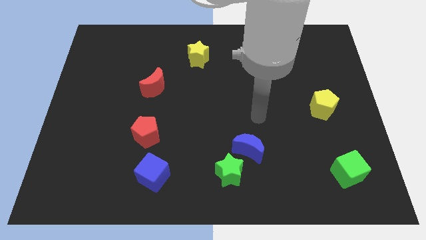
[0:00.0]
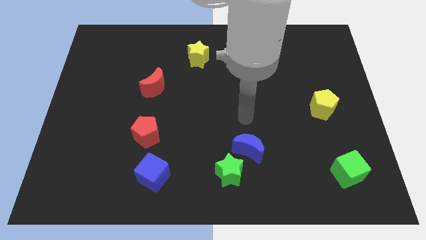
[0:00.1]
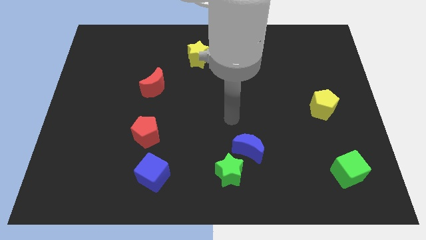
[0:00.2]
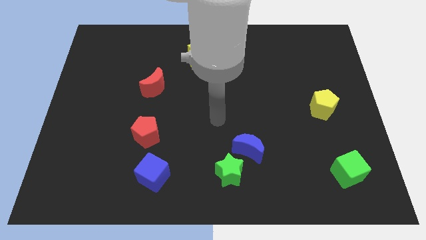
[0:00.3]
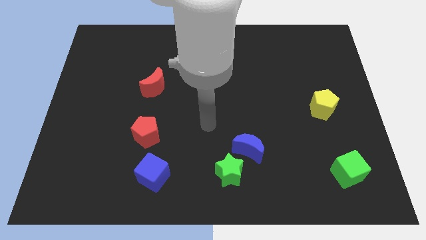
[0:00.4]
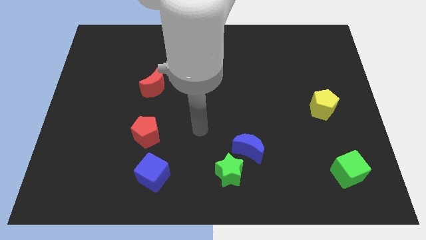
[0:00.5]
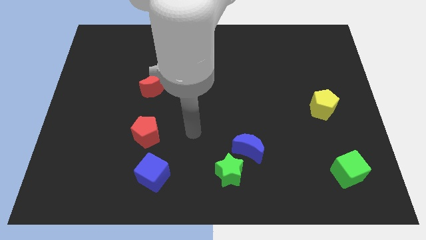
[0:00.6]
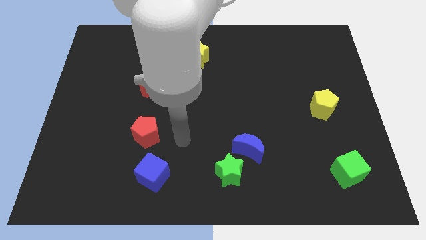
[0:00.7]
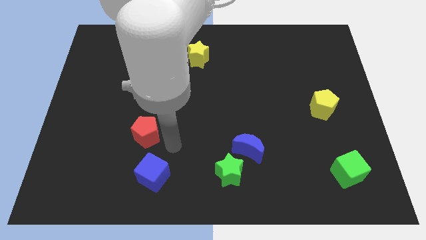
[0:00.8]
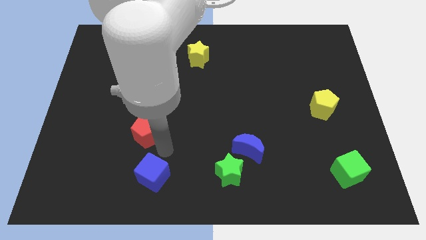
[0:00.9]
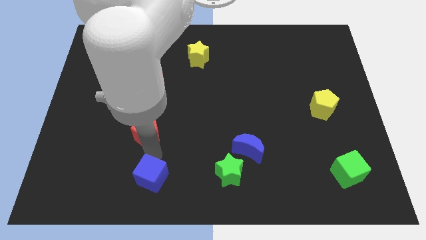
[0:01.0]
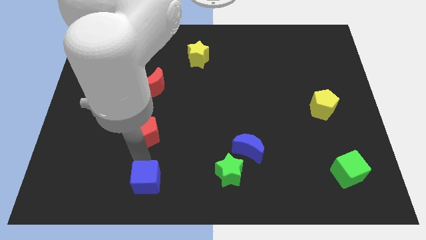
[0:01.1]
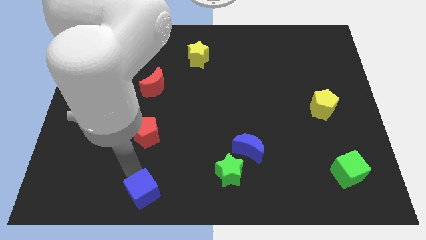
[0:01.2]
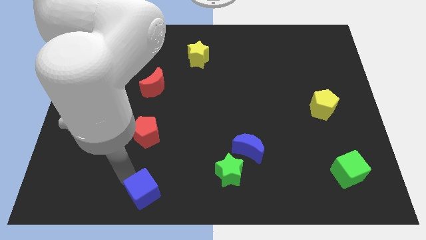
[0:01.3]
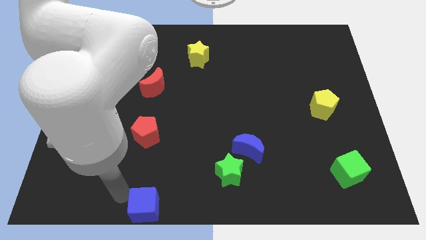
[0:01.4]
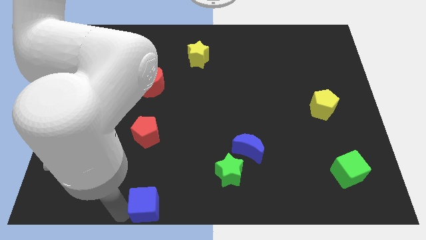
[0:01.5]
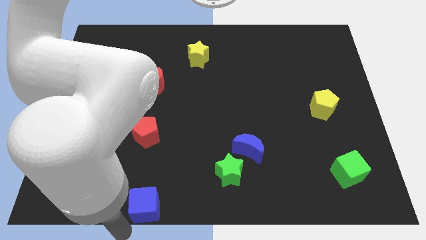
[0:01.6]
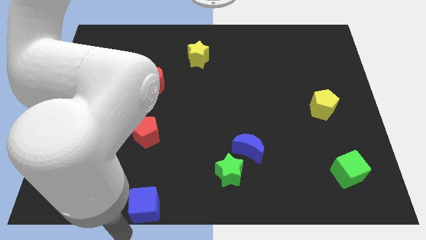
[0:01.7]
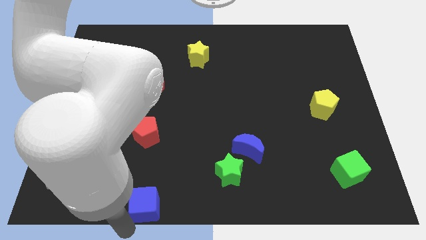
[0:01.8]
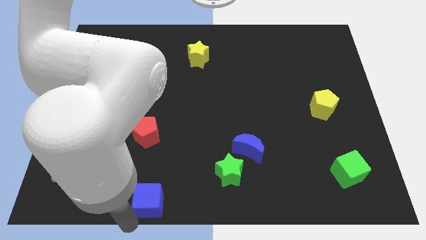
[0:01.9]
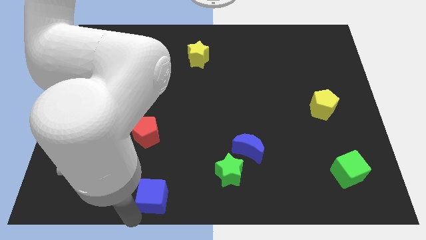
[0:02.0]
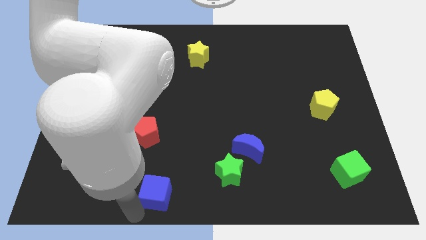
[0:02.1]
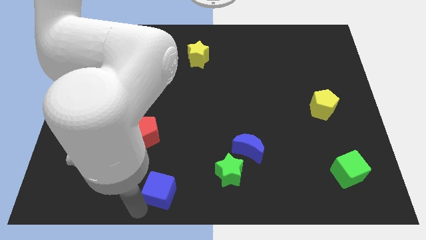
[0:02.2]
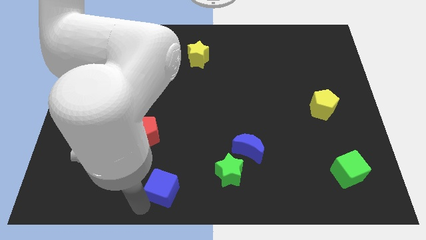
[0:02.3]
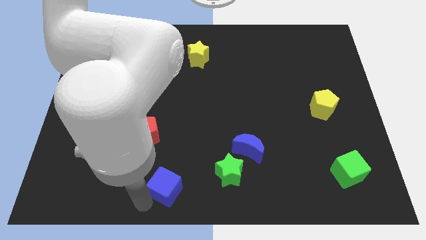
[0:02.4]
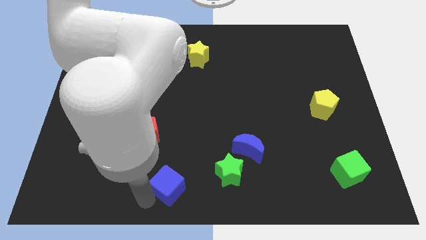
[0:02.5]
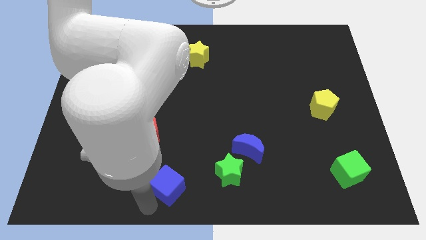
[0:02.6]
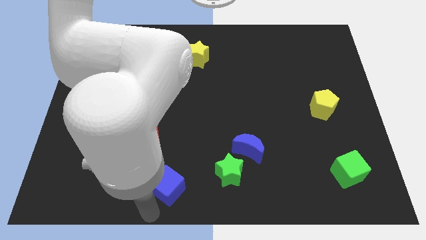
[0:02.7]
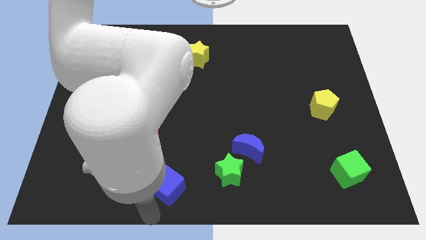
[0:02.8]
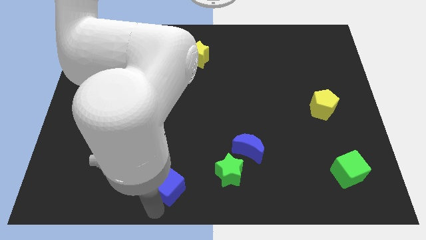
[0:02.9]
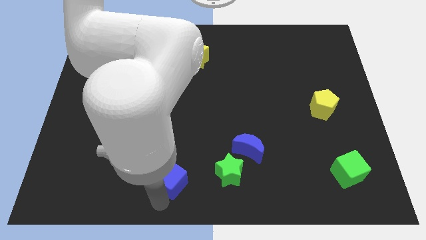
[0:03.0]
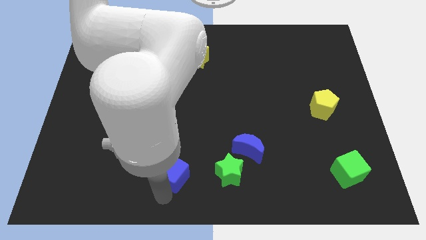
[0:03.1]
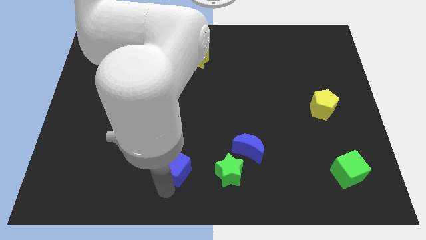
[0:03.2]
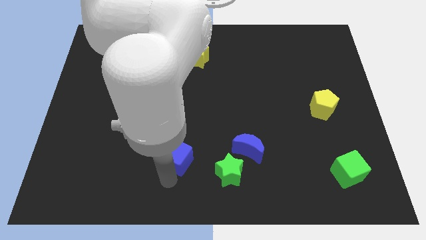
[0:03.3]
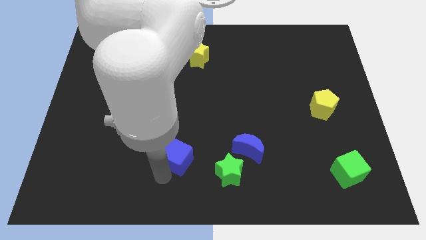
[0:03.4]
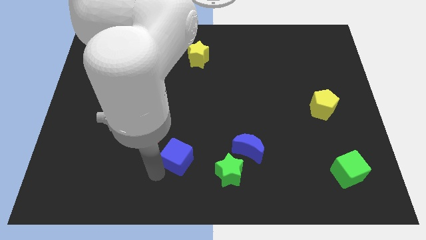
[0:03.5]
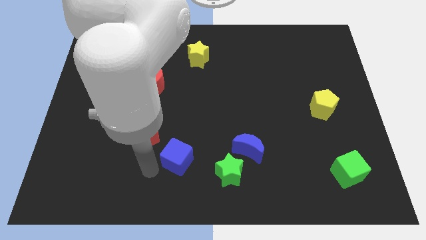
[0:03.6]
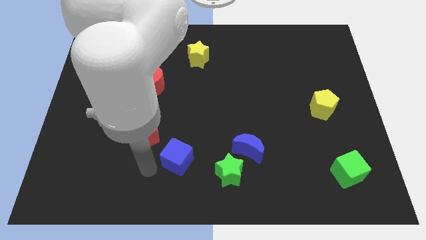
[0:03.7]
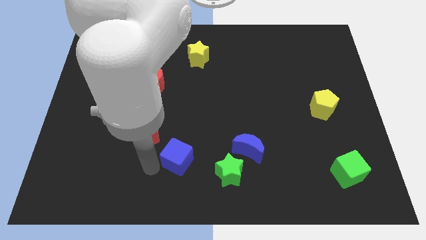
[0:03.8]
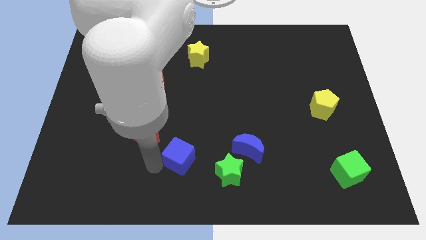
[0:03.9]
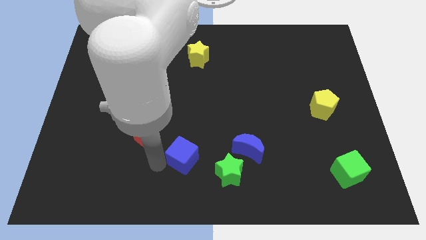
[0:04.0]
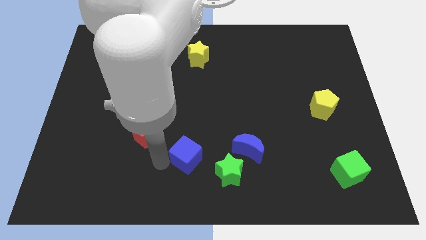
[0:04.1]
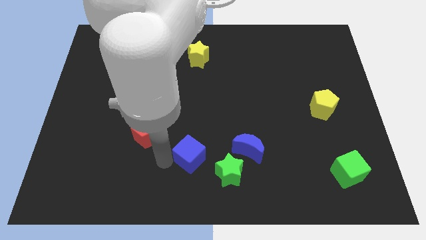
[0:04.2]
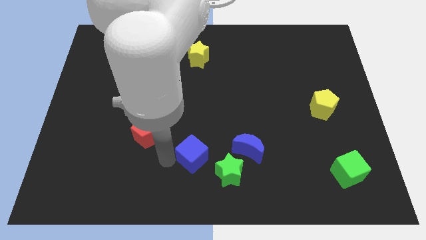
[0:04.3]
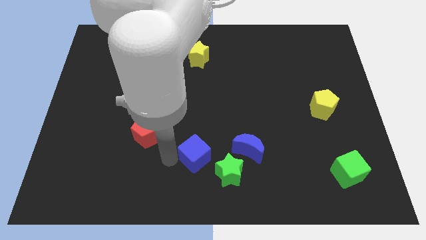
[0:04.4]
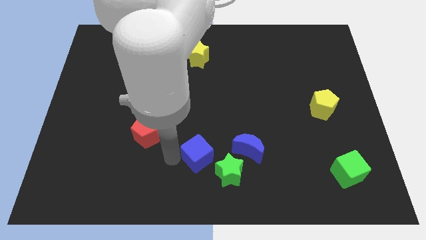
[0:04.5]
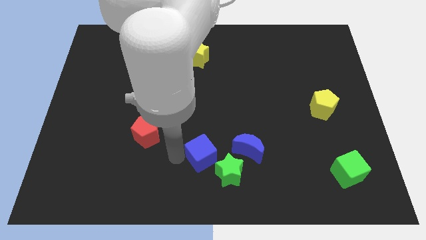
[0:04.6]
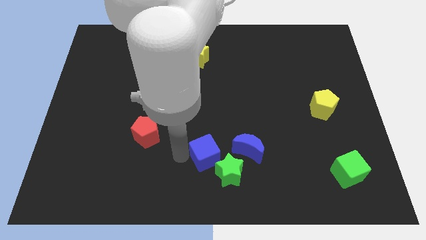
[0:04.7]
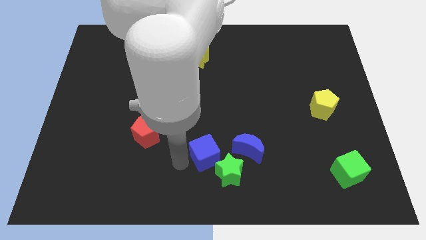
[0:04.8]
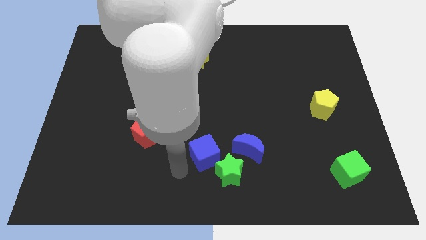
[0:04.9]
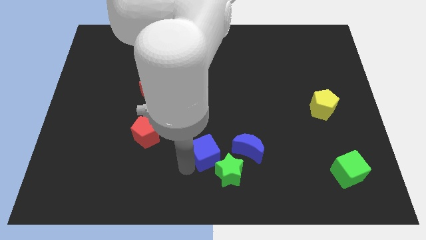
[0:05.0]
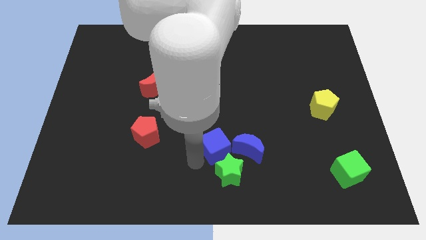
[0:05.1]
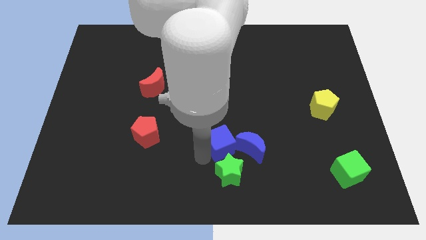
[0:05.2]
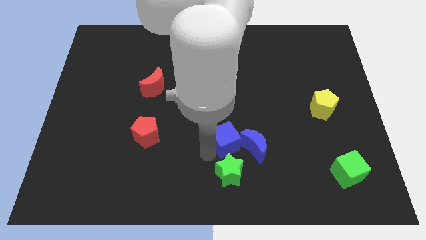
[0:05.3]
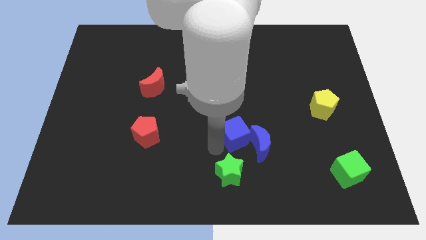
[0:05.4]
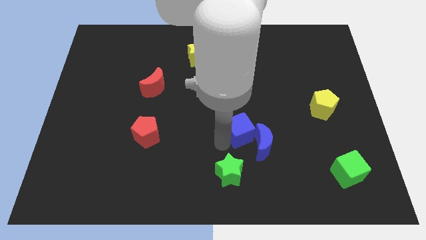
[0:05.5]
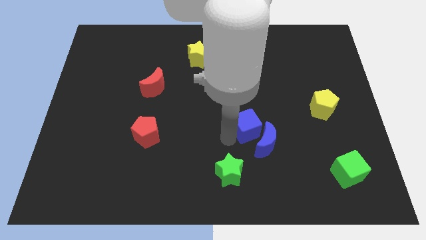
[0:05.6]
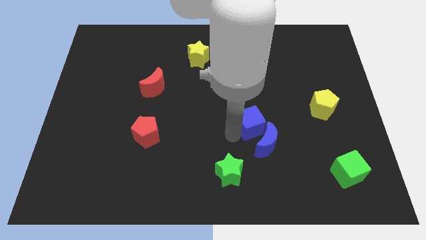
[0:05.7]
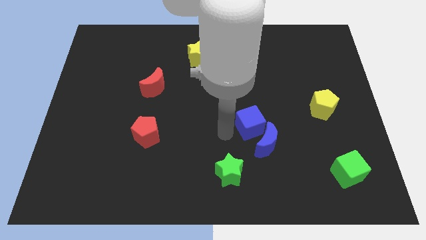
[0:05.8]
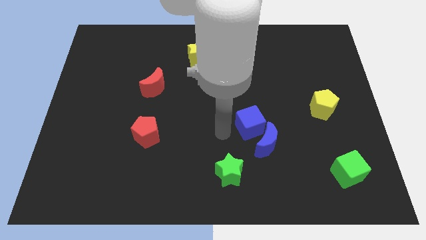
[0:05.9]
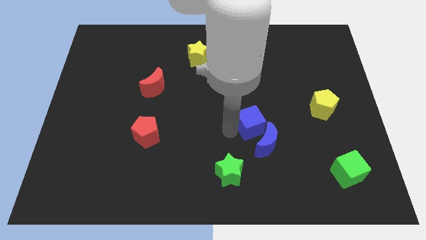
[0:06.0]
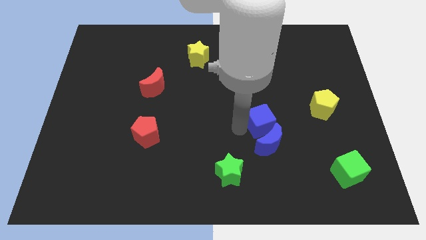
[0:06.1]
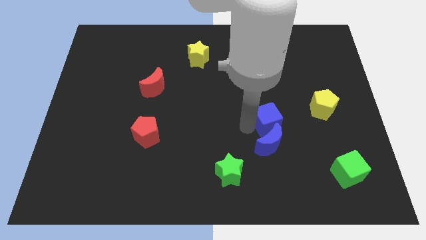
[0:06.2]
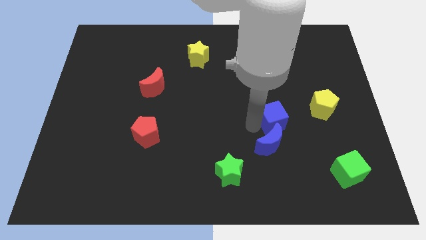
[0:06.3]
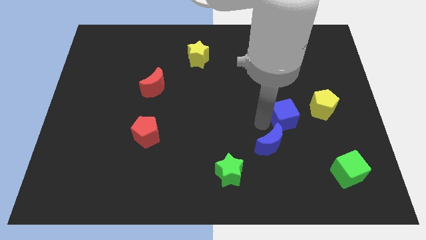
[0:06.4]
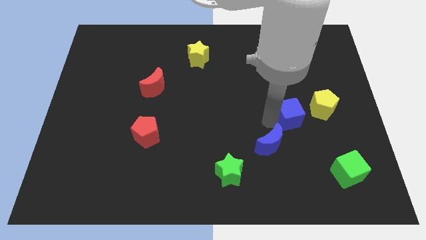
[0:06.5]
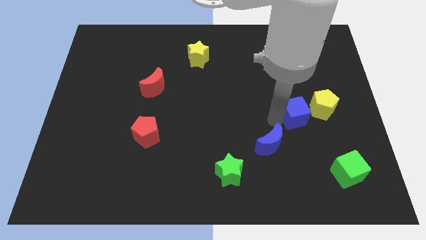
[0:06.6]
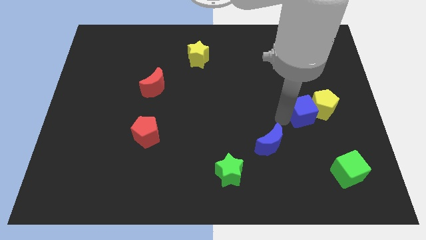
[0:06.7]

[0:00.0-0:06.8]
slide the blue cube to the yellow pentagon

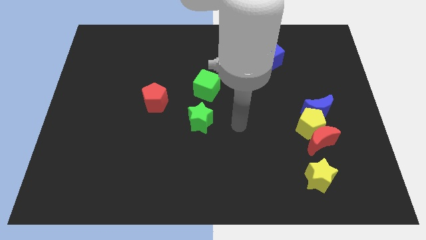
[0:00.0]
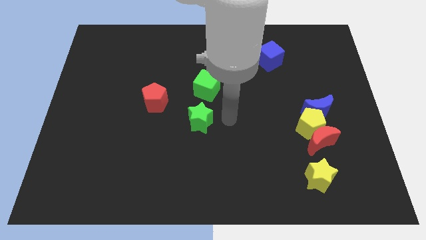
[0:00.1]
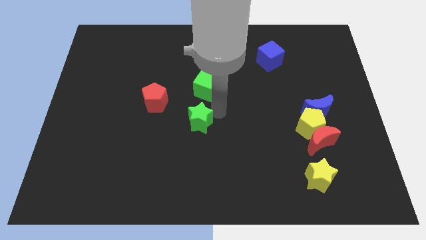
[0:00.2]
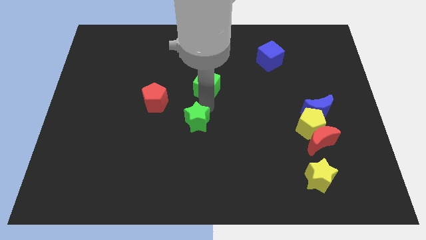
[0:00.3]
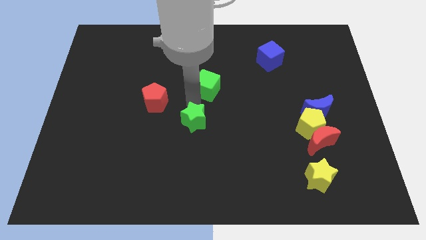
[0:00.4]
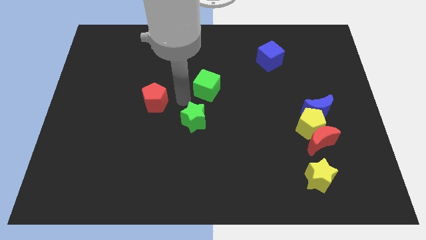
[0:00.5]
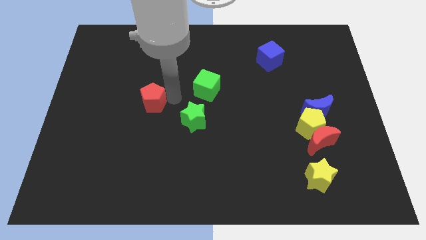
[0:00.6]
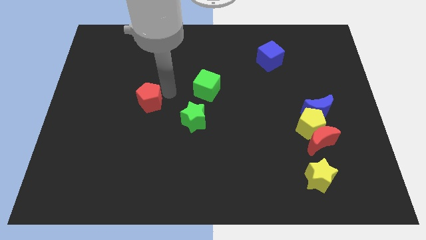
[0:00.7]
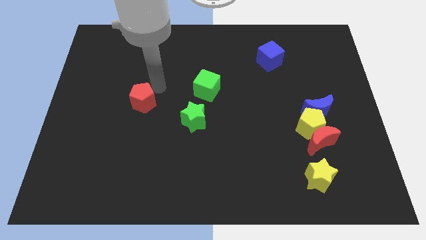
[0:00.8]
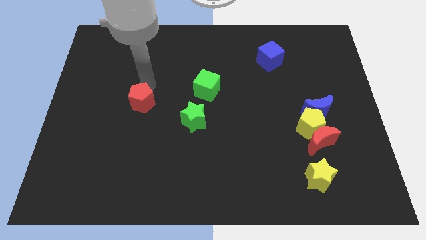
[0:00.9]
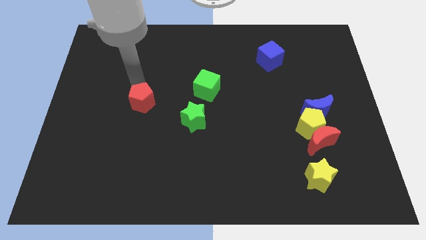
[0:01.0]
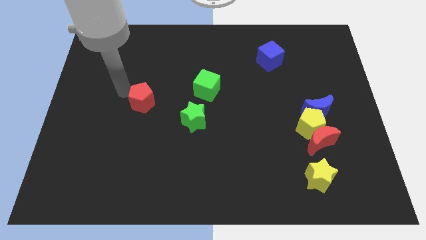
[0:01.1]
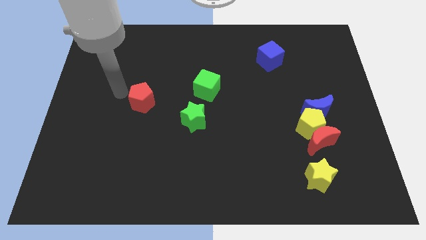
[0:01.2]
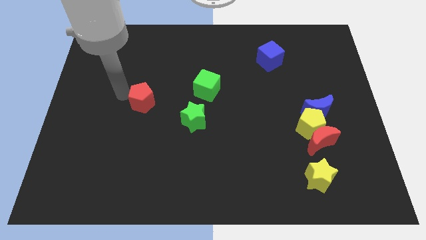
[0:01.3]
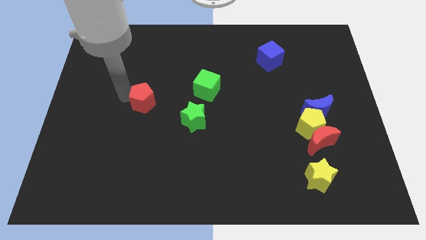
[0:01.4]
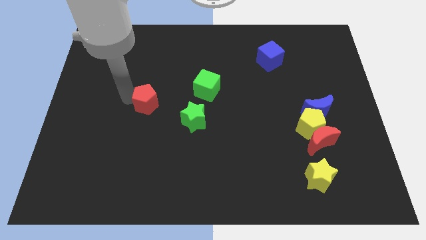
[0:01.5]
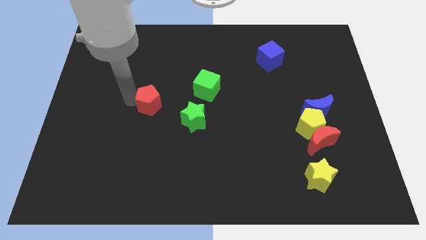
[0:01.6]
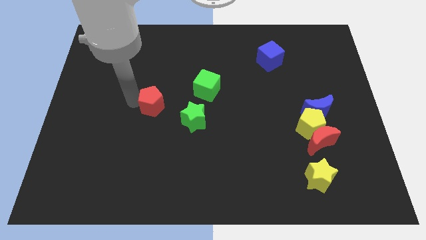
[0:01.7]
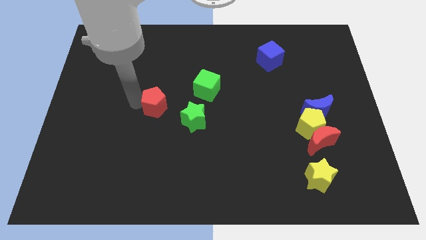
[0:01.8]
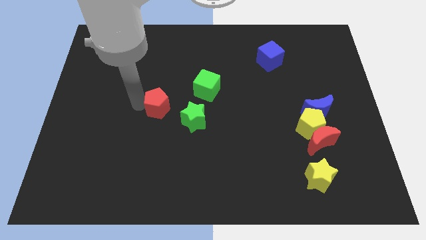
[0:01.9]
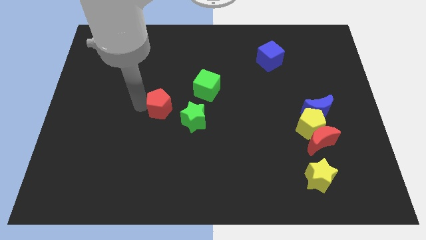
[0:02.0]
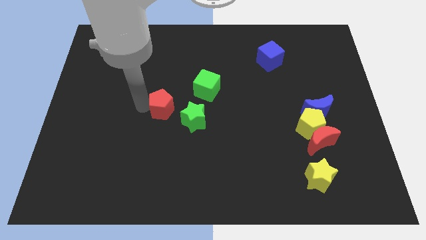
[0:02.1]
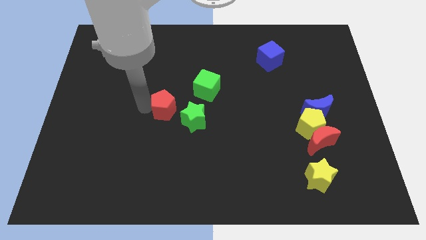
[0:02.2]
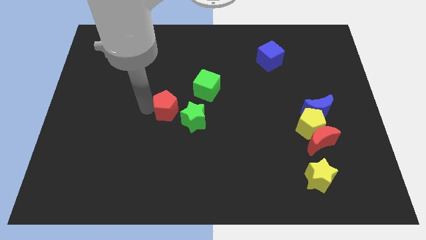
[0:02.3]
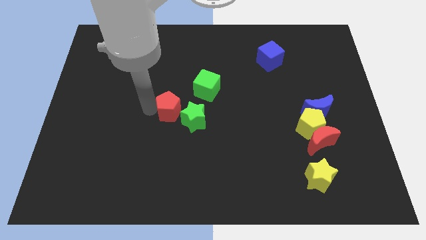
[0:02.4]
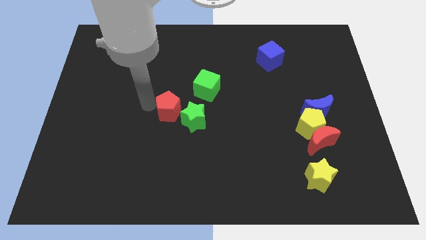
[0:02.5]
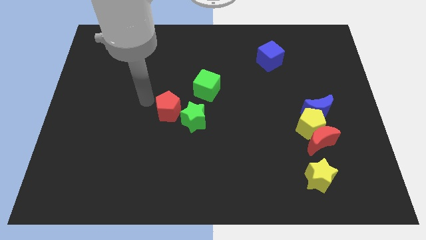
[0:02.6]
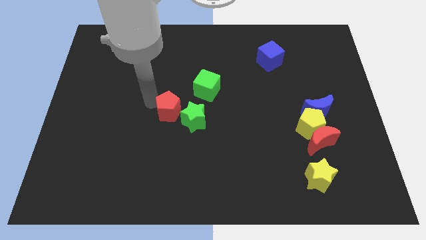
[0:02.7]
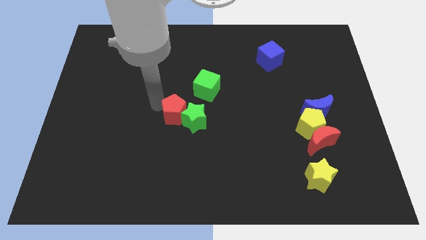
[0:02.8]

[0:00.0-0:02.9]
put the red pentagon to the green star
